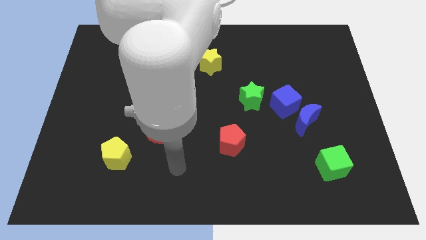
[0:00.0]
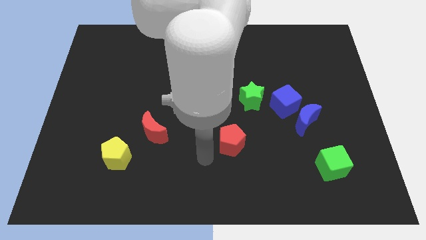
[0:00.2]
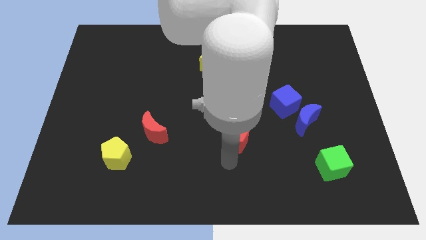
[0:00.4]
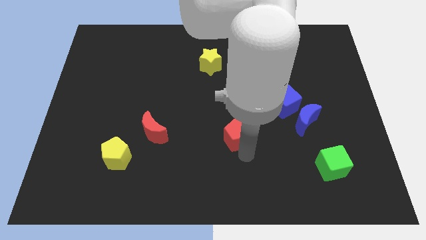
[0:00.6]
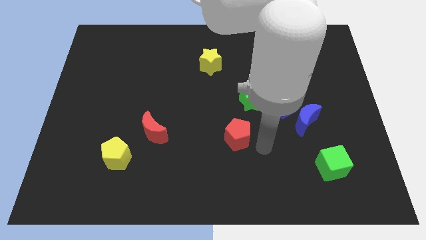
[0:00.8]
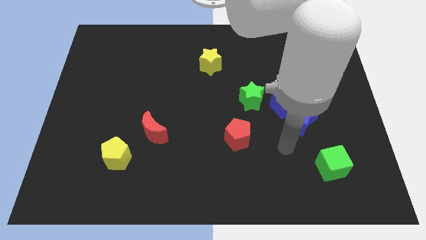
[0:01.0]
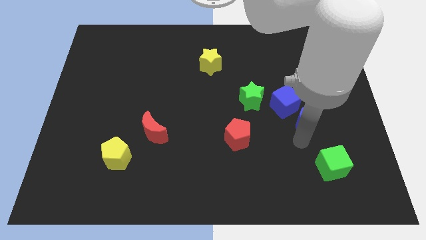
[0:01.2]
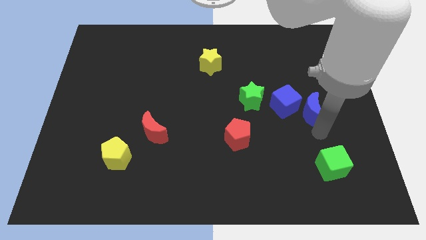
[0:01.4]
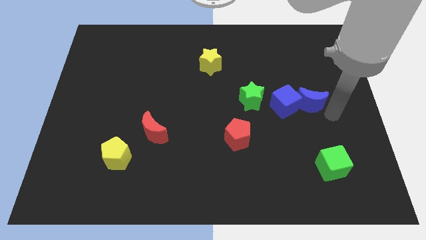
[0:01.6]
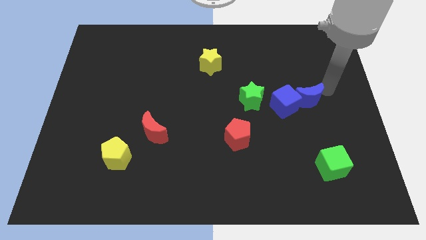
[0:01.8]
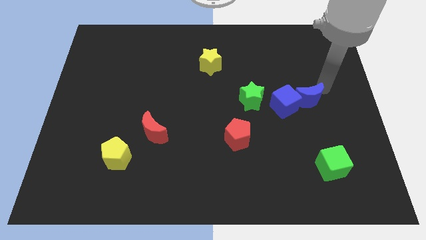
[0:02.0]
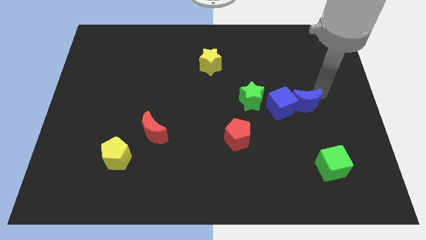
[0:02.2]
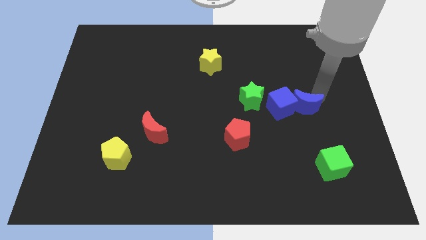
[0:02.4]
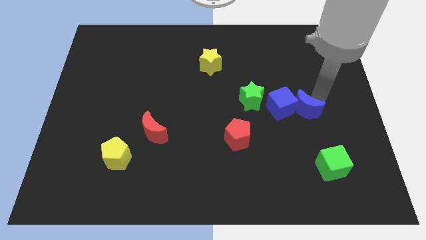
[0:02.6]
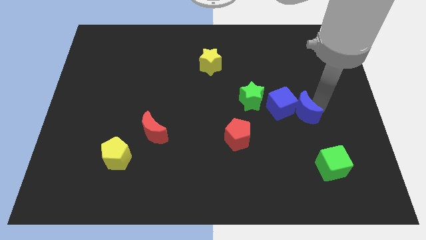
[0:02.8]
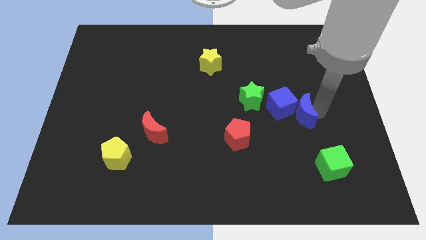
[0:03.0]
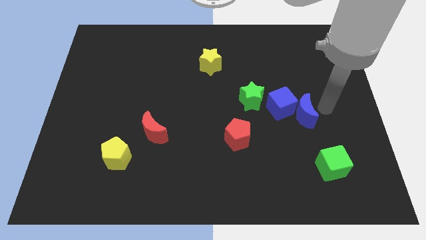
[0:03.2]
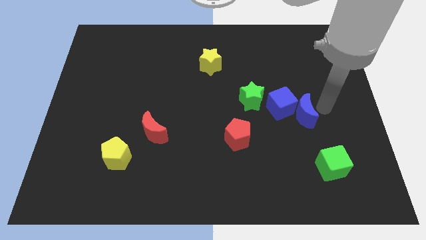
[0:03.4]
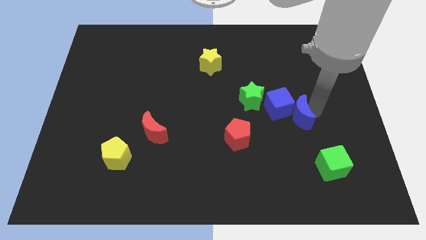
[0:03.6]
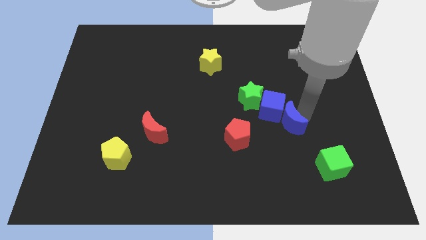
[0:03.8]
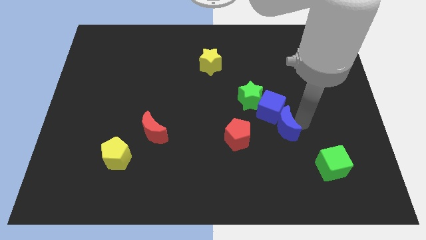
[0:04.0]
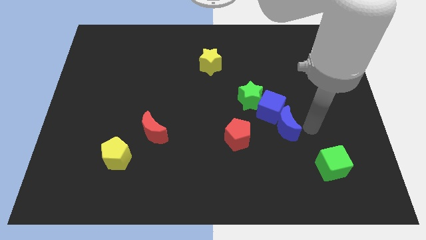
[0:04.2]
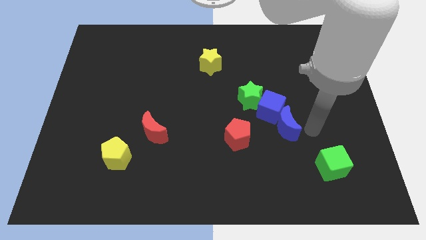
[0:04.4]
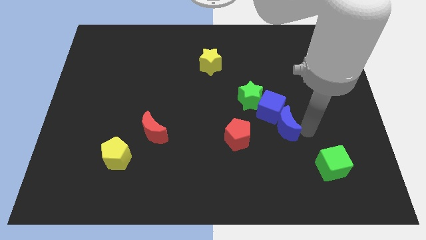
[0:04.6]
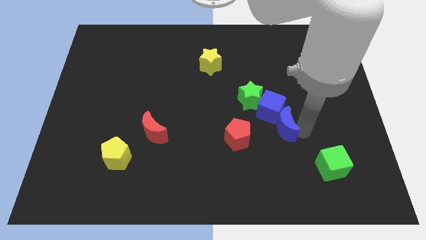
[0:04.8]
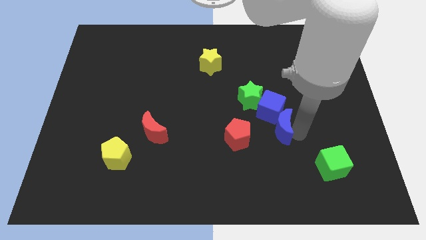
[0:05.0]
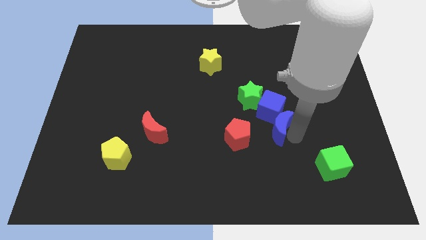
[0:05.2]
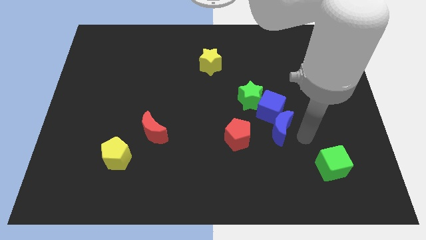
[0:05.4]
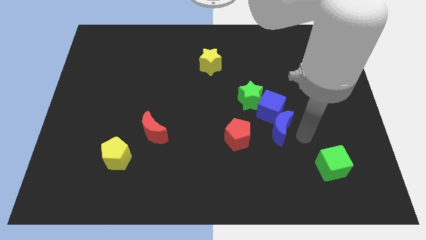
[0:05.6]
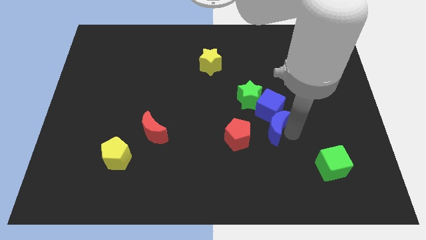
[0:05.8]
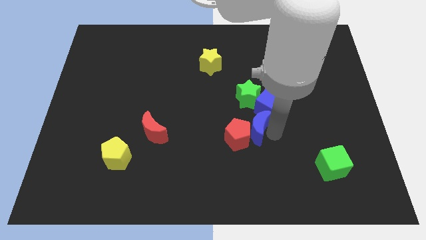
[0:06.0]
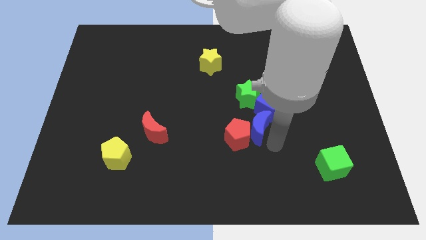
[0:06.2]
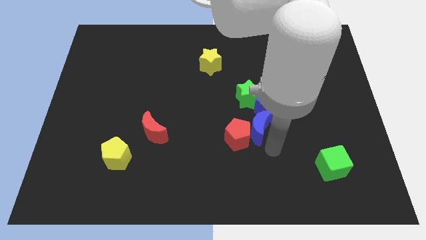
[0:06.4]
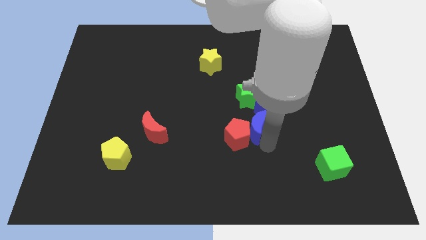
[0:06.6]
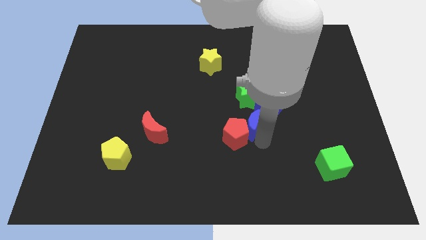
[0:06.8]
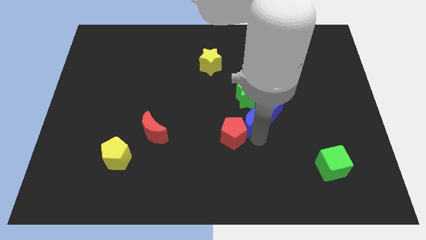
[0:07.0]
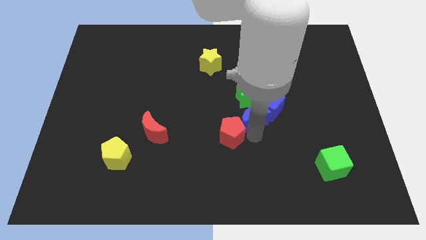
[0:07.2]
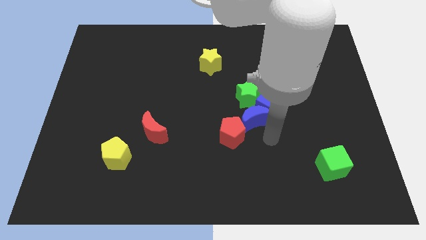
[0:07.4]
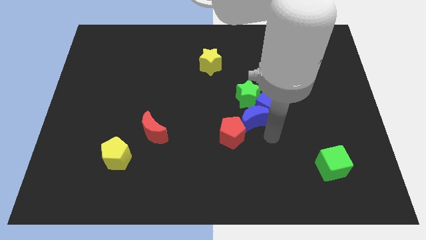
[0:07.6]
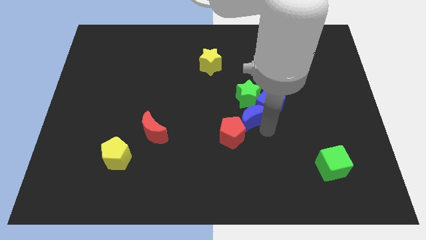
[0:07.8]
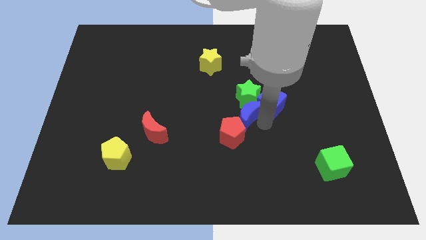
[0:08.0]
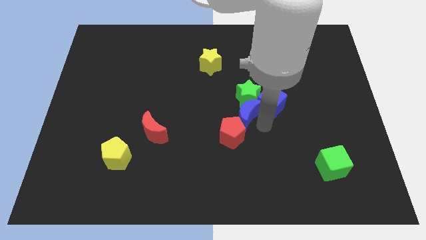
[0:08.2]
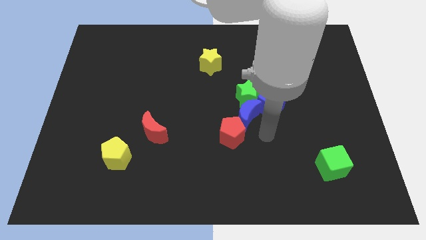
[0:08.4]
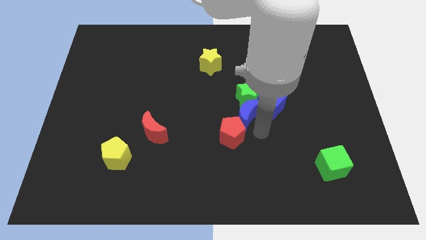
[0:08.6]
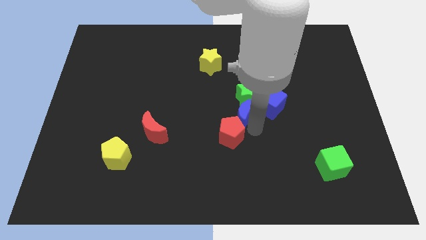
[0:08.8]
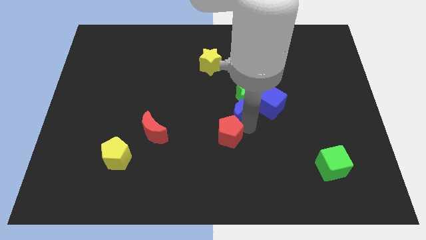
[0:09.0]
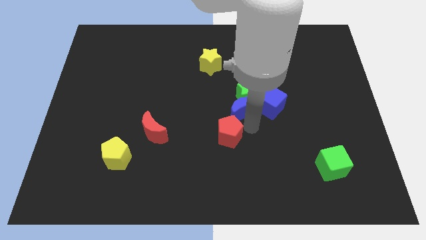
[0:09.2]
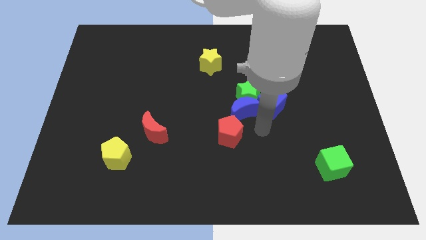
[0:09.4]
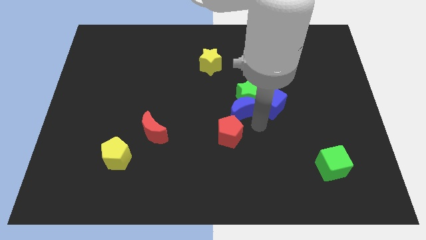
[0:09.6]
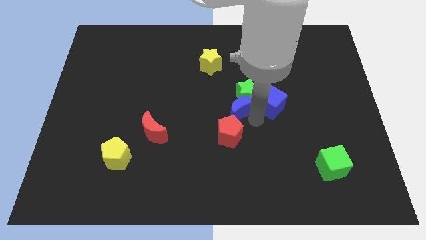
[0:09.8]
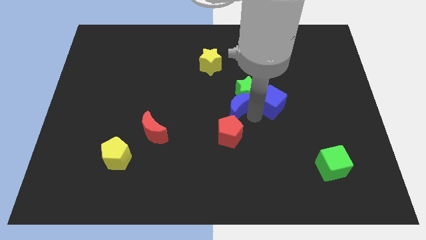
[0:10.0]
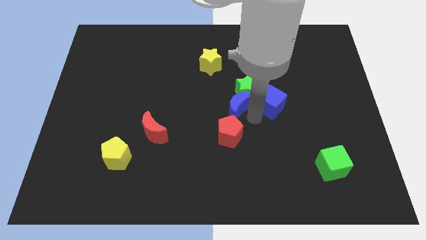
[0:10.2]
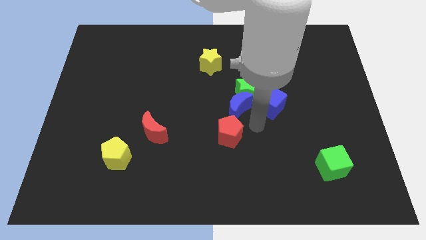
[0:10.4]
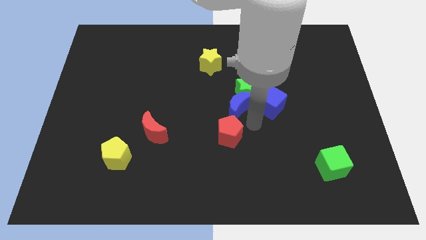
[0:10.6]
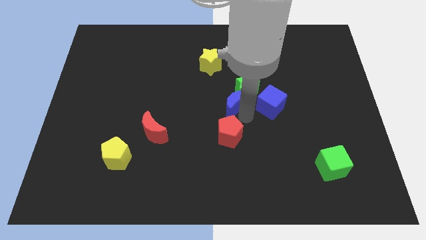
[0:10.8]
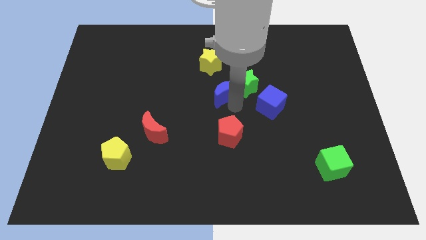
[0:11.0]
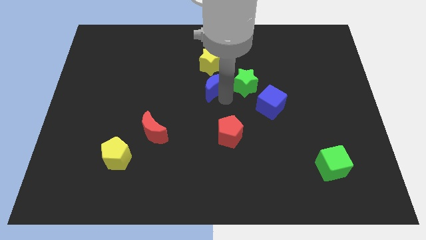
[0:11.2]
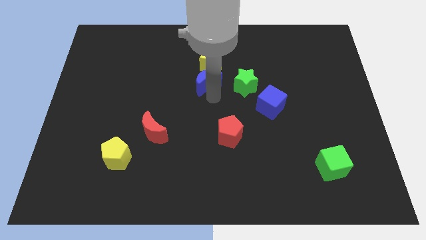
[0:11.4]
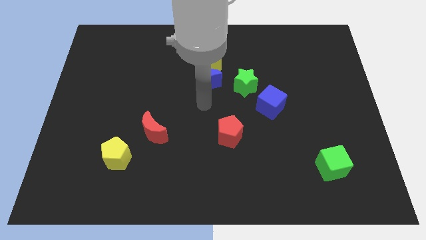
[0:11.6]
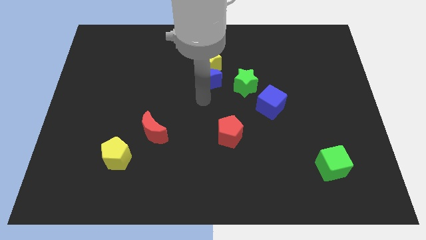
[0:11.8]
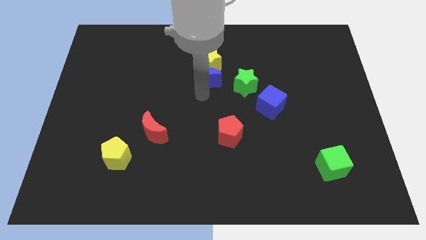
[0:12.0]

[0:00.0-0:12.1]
push the blue moon close to the yellow star

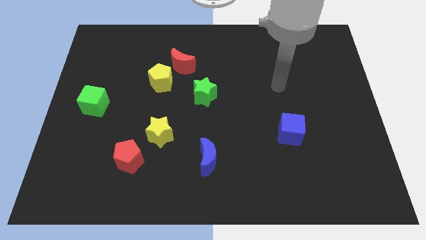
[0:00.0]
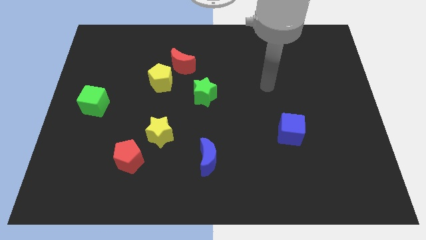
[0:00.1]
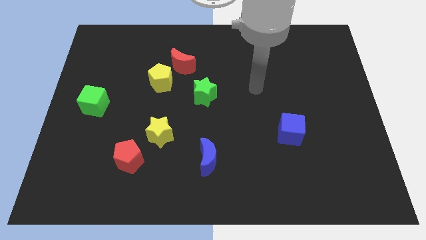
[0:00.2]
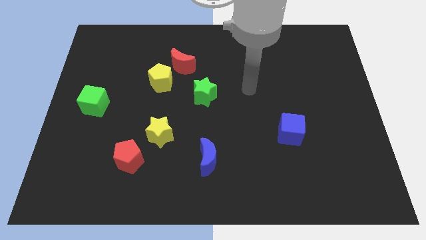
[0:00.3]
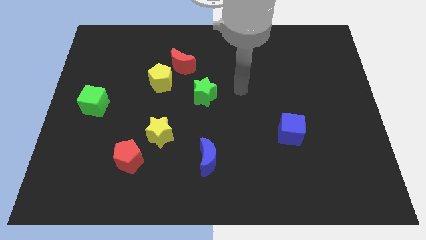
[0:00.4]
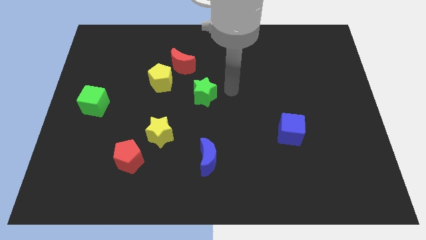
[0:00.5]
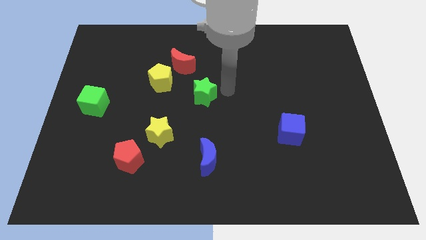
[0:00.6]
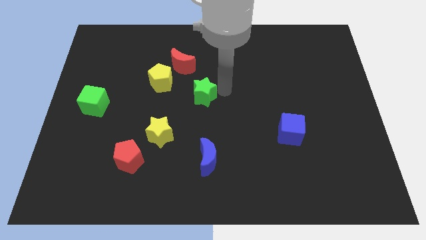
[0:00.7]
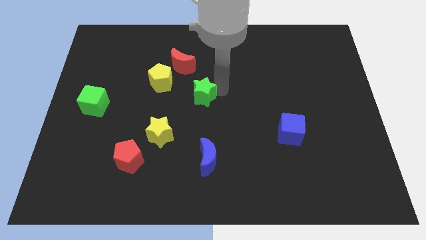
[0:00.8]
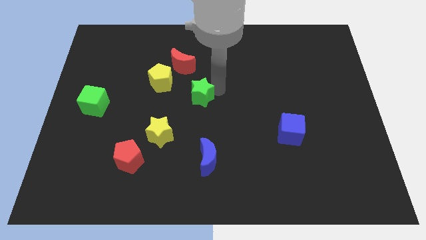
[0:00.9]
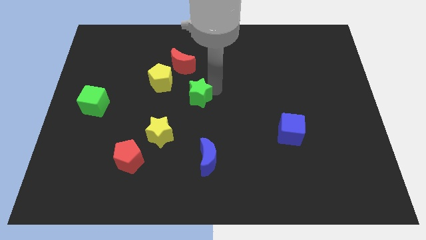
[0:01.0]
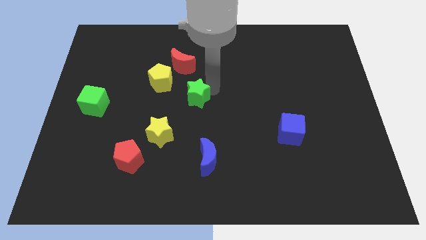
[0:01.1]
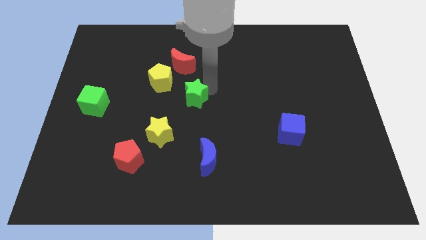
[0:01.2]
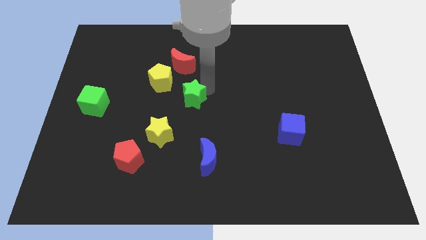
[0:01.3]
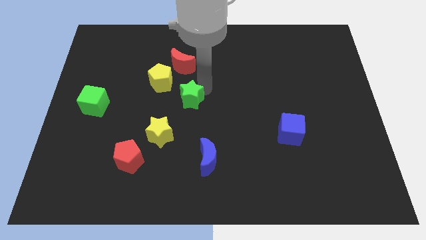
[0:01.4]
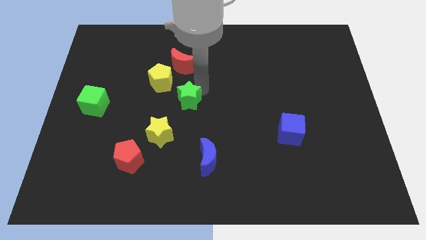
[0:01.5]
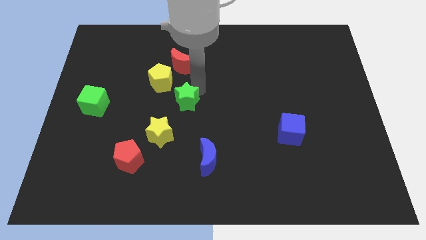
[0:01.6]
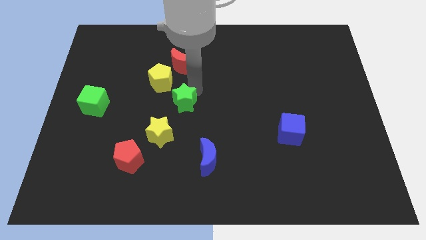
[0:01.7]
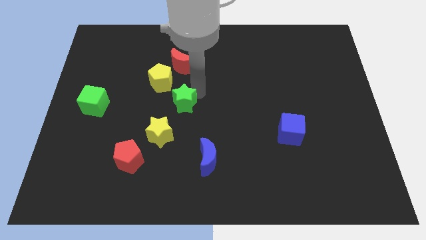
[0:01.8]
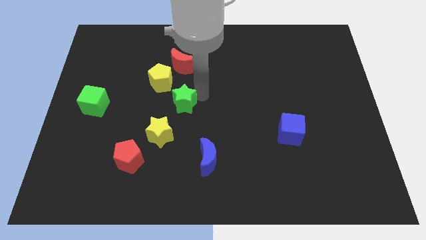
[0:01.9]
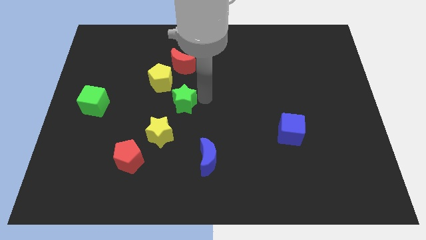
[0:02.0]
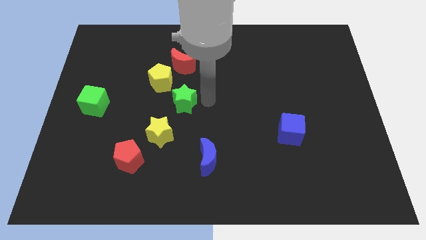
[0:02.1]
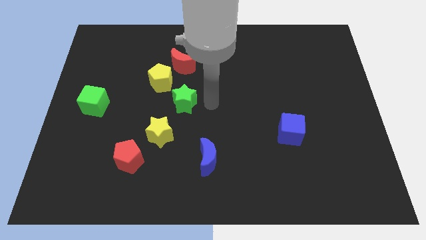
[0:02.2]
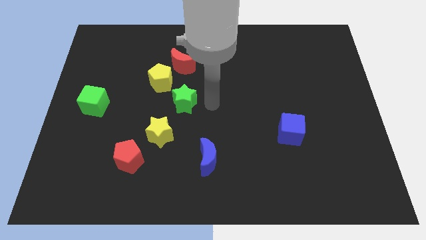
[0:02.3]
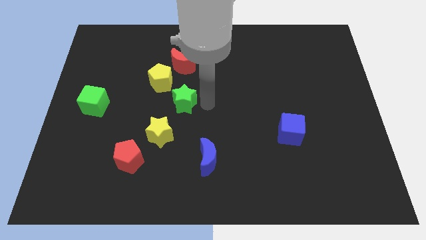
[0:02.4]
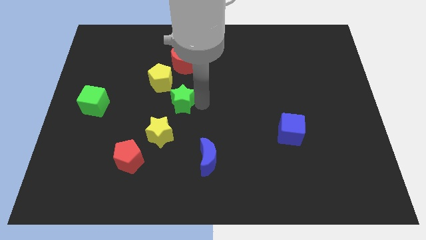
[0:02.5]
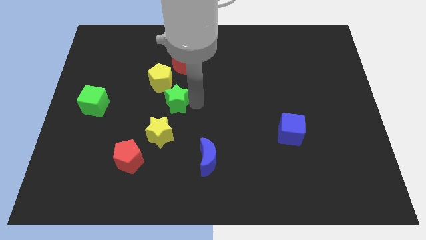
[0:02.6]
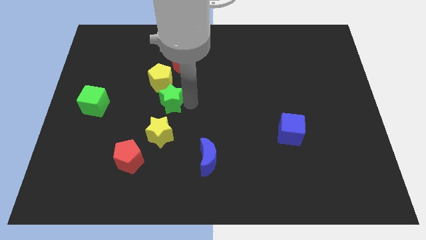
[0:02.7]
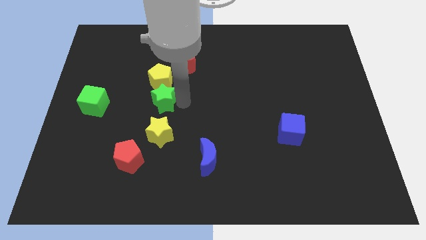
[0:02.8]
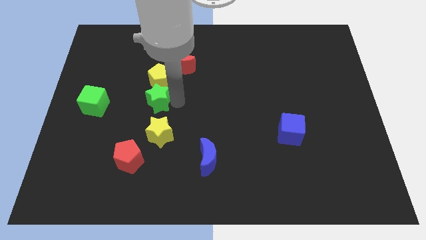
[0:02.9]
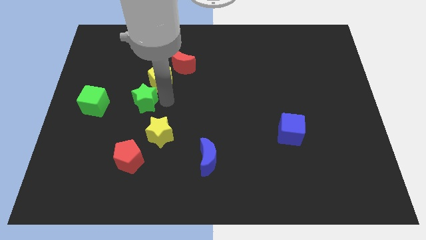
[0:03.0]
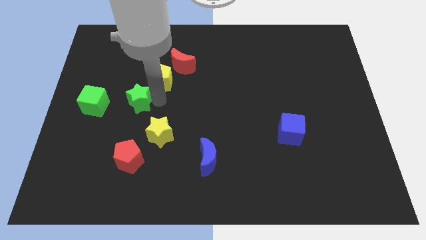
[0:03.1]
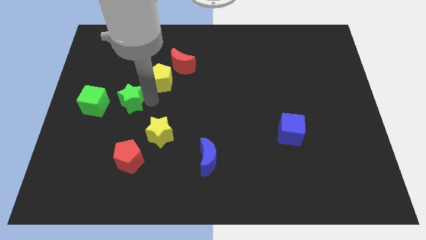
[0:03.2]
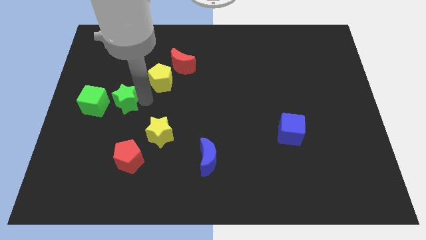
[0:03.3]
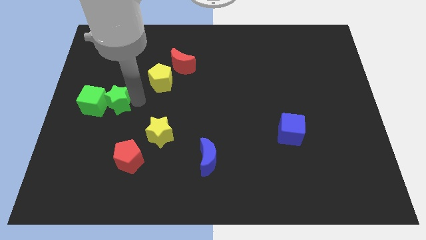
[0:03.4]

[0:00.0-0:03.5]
slide the green star next to the green cube
